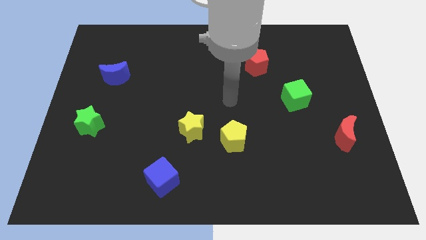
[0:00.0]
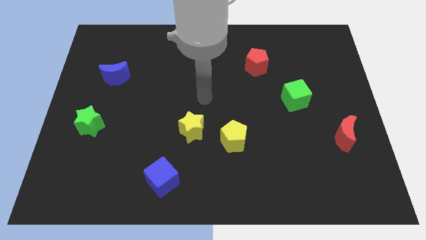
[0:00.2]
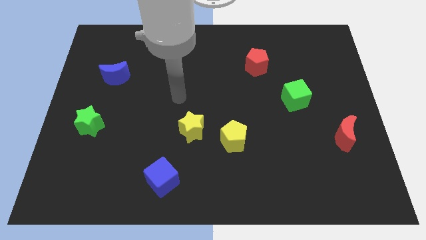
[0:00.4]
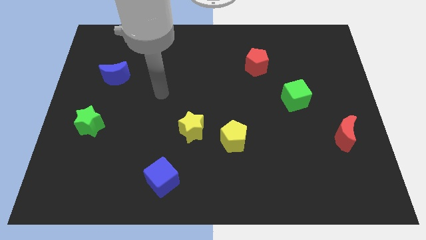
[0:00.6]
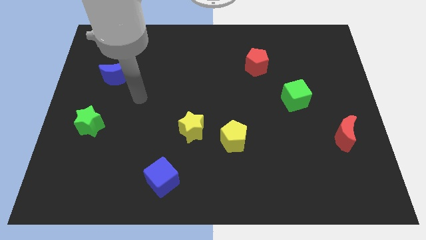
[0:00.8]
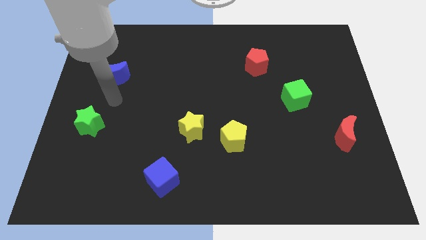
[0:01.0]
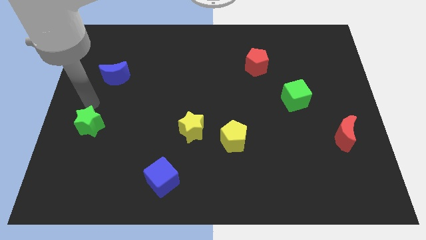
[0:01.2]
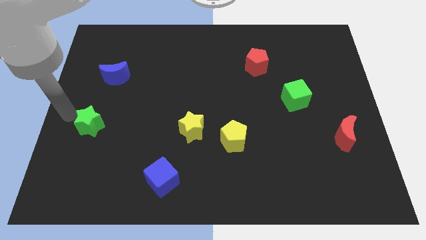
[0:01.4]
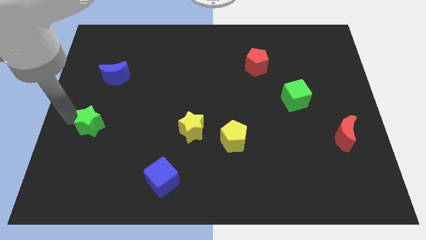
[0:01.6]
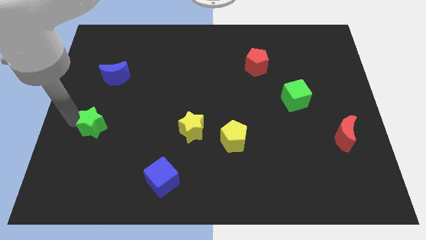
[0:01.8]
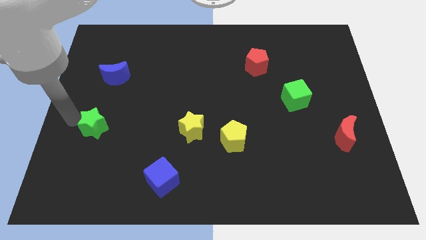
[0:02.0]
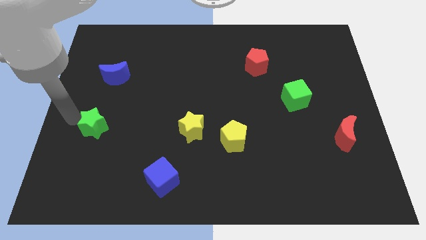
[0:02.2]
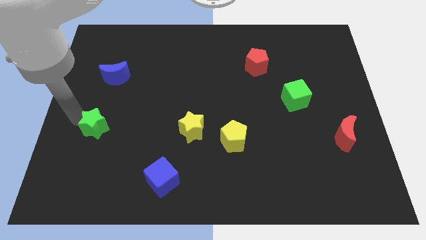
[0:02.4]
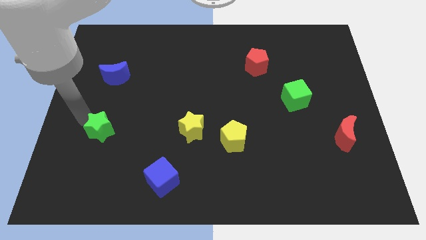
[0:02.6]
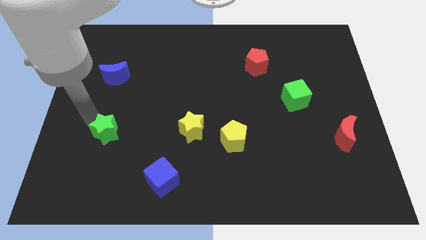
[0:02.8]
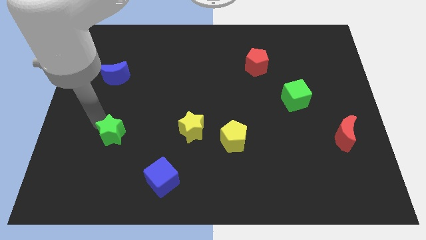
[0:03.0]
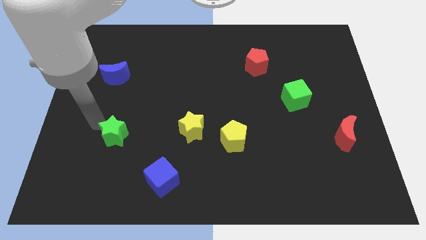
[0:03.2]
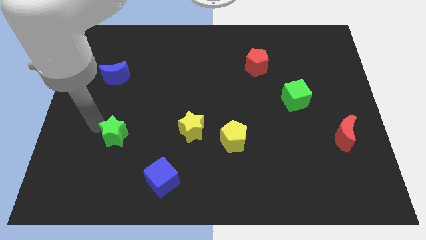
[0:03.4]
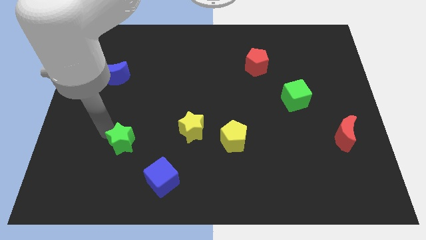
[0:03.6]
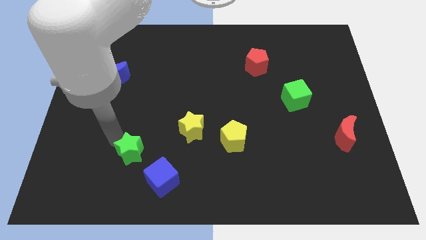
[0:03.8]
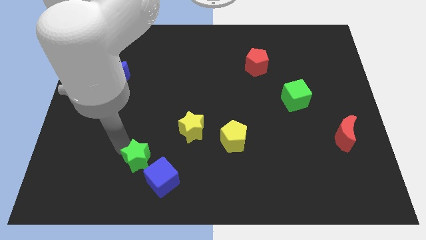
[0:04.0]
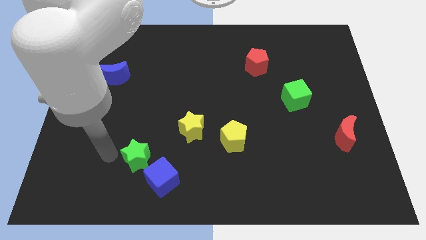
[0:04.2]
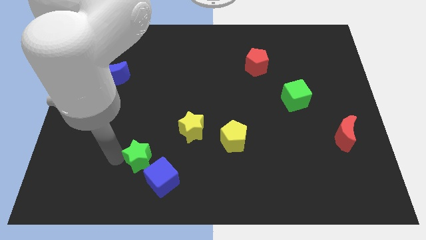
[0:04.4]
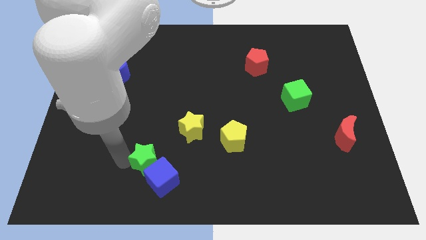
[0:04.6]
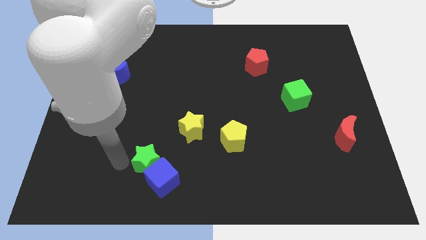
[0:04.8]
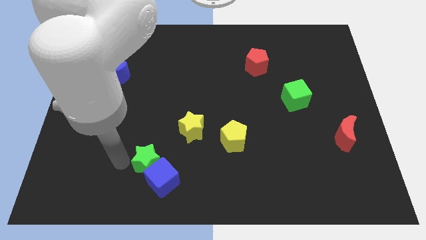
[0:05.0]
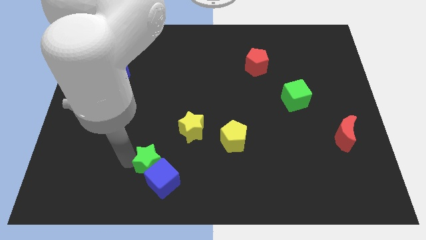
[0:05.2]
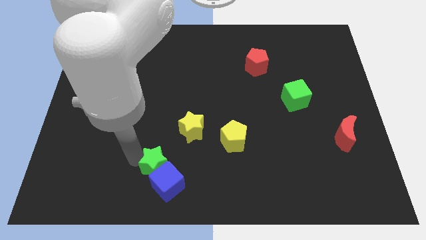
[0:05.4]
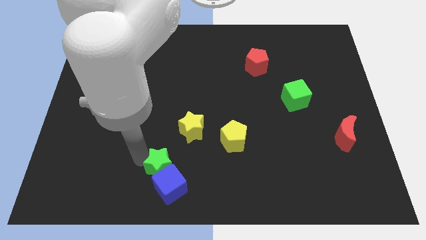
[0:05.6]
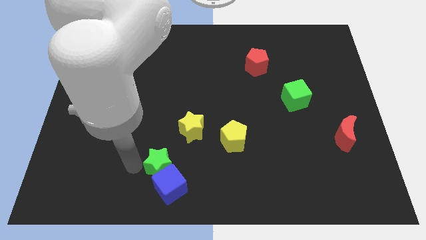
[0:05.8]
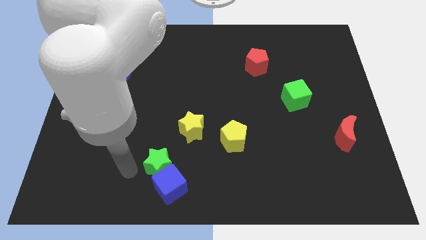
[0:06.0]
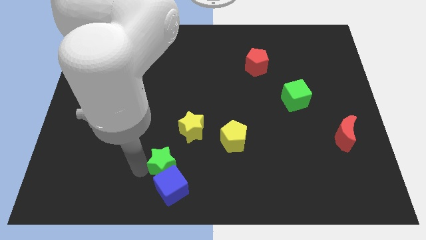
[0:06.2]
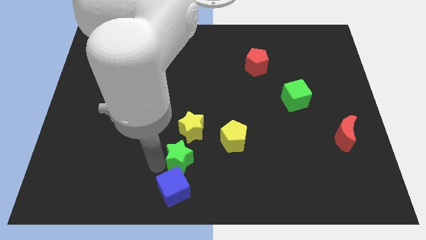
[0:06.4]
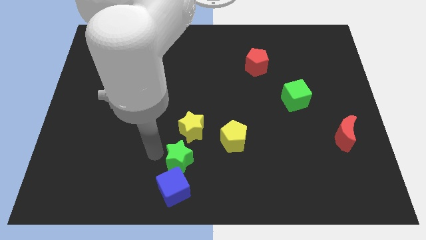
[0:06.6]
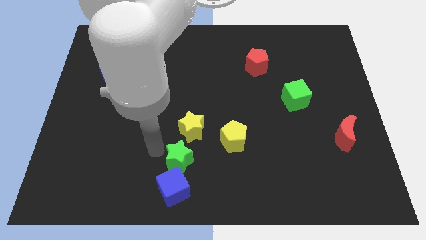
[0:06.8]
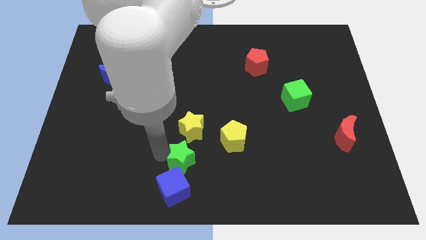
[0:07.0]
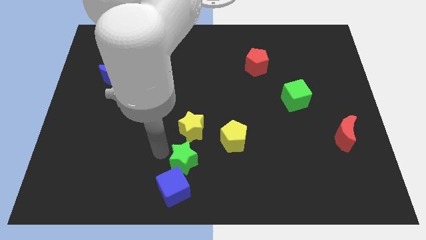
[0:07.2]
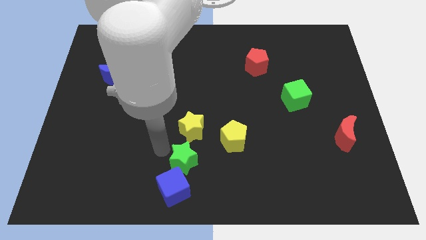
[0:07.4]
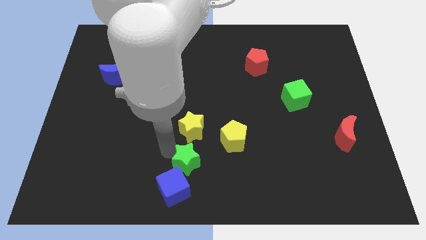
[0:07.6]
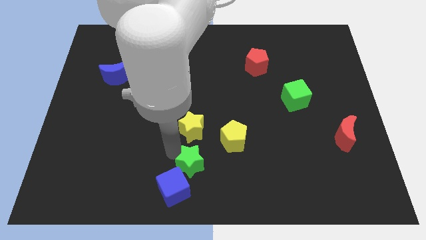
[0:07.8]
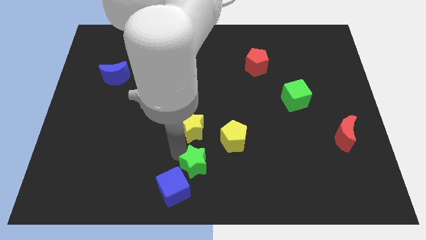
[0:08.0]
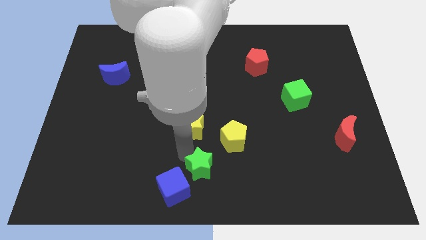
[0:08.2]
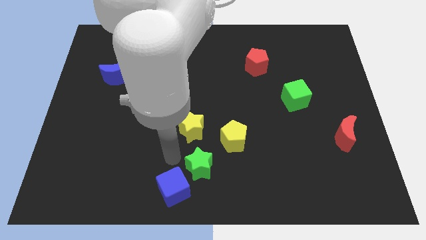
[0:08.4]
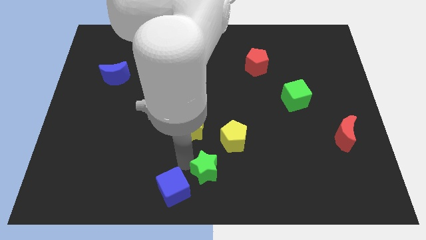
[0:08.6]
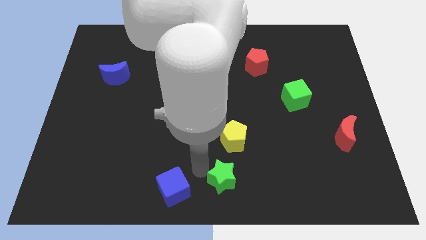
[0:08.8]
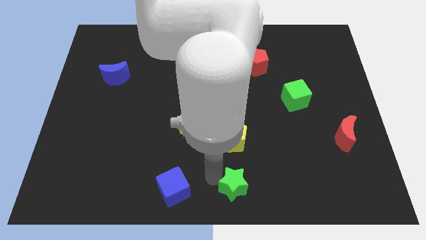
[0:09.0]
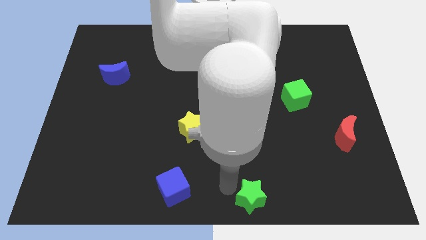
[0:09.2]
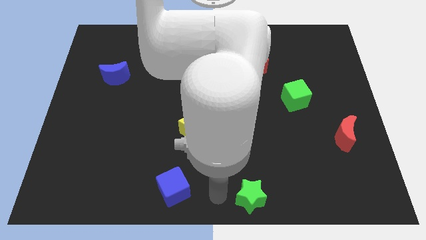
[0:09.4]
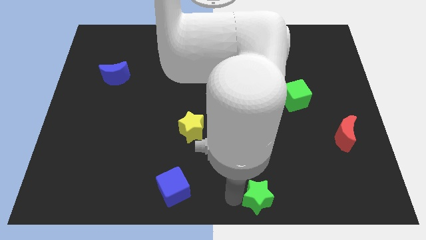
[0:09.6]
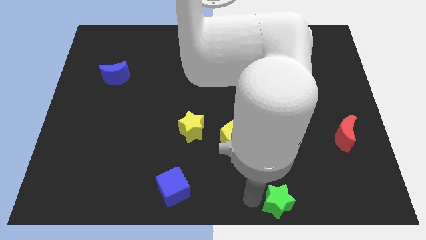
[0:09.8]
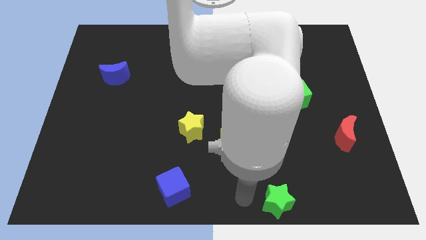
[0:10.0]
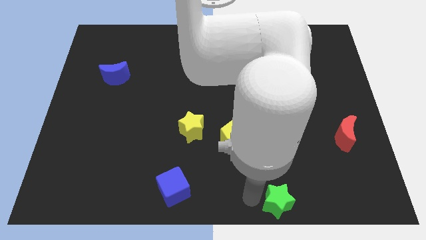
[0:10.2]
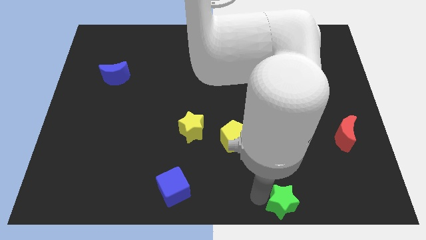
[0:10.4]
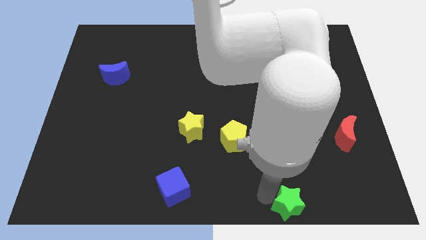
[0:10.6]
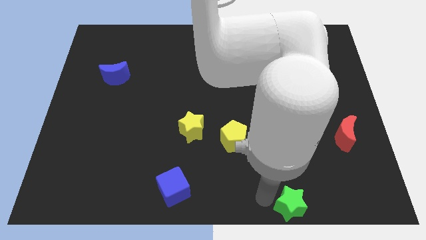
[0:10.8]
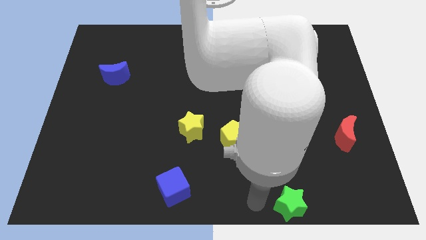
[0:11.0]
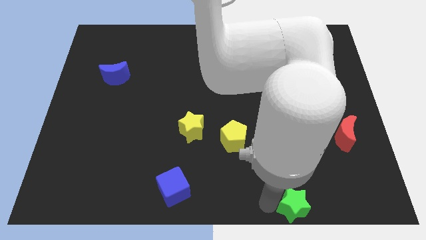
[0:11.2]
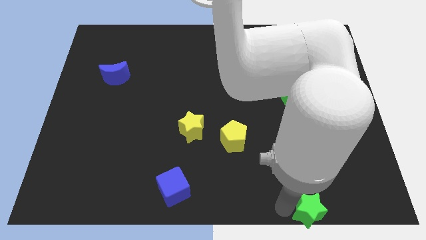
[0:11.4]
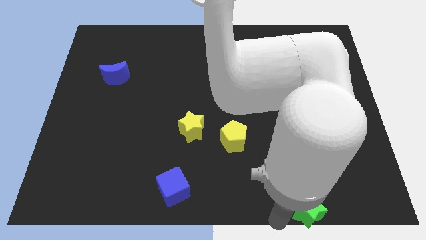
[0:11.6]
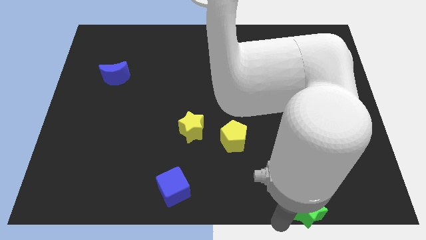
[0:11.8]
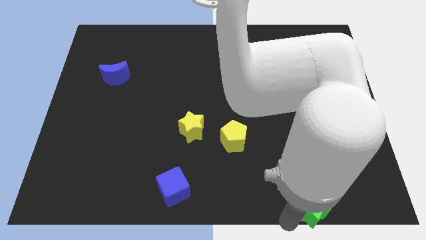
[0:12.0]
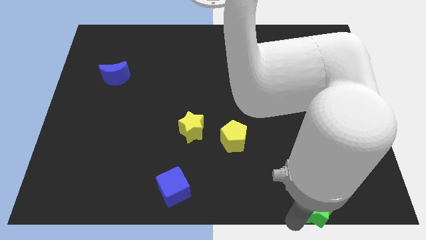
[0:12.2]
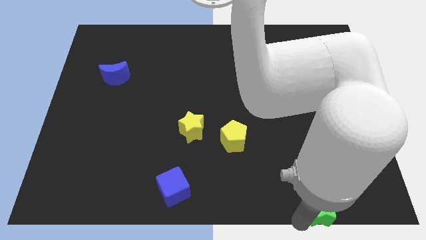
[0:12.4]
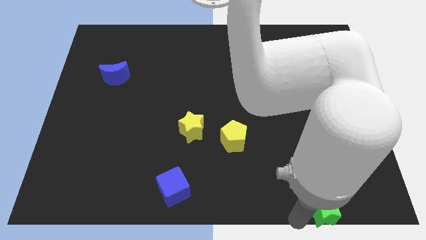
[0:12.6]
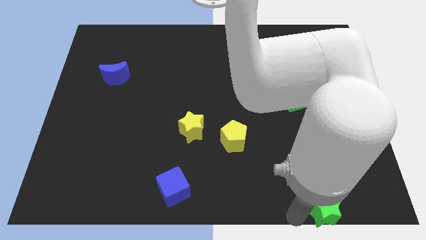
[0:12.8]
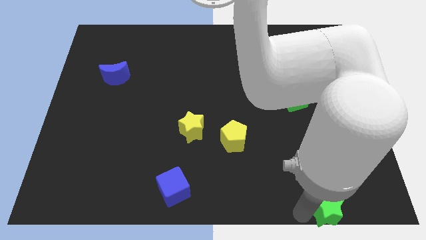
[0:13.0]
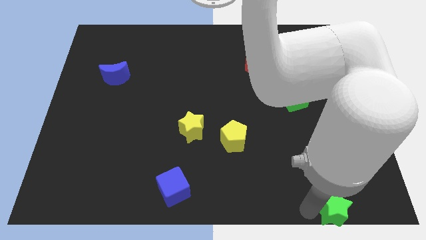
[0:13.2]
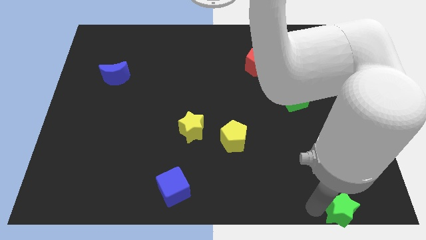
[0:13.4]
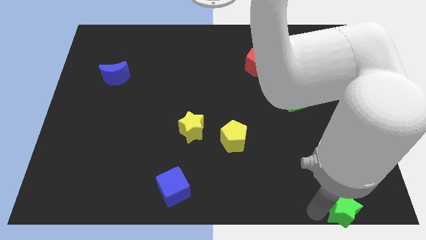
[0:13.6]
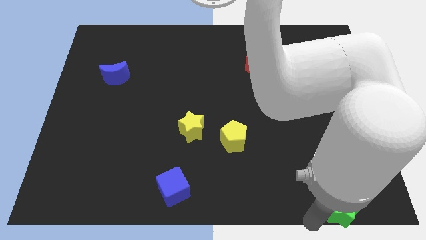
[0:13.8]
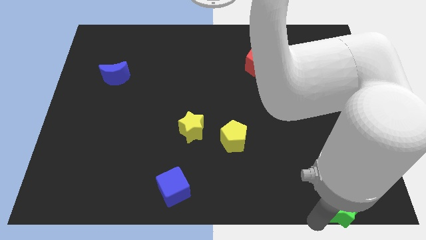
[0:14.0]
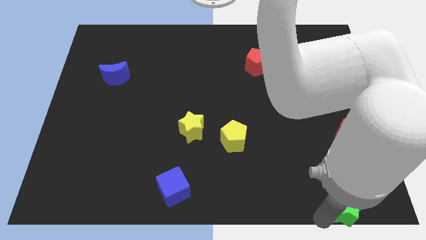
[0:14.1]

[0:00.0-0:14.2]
move the green star to the bottom right corner
